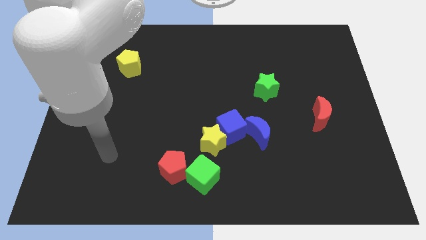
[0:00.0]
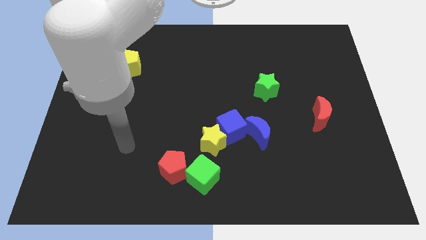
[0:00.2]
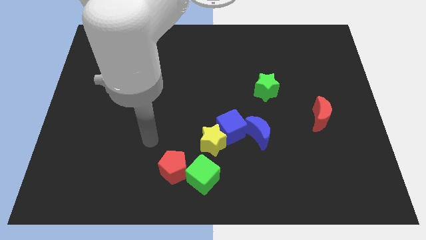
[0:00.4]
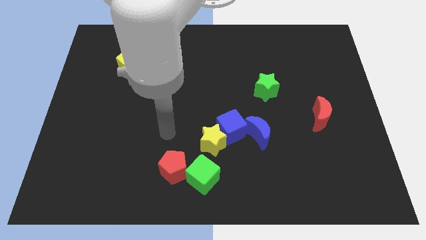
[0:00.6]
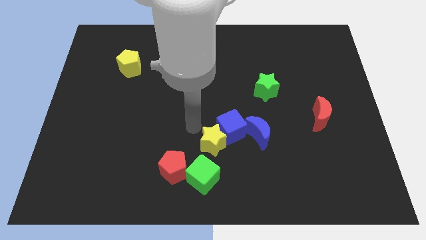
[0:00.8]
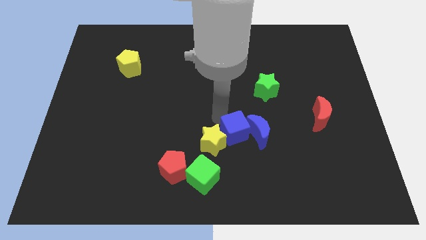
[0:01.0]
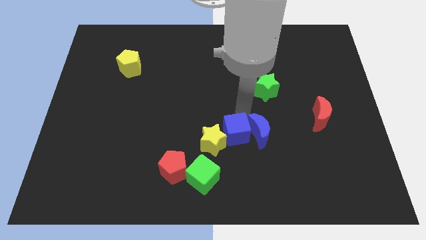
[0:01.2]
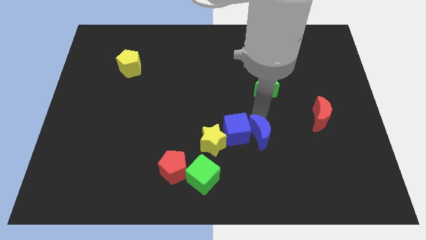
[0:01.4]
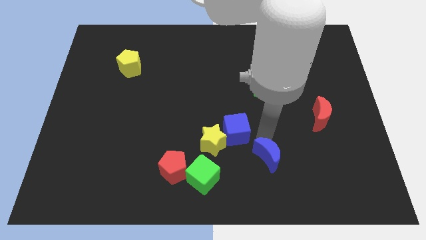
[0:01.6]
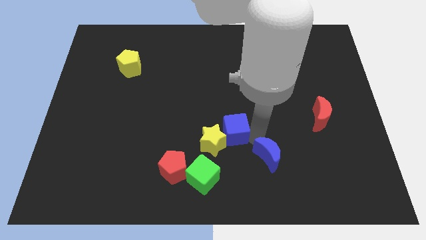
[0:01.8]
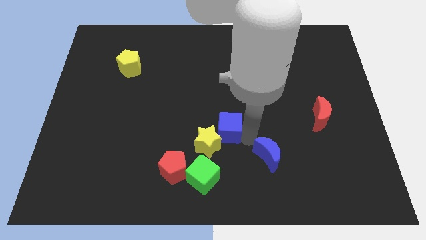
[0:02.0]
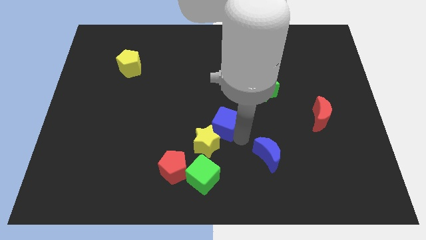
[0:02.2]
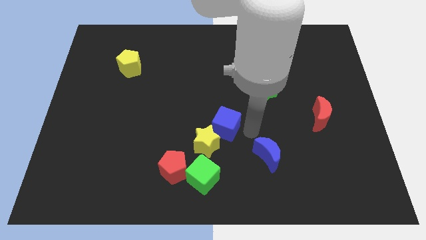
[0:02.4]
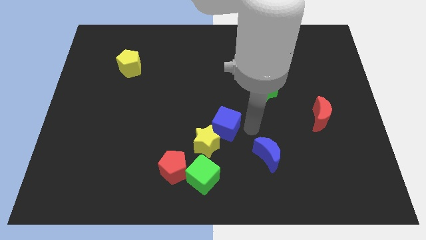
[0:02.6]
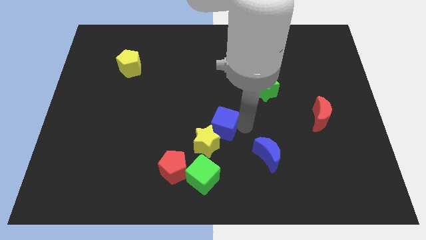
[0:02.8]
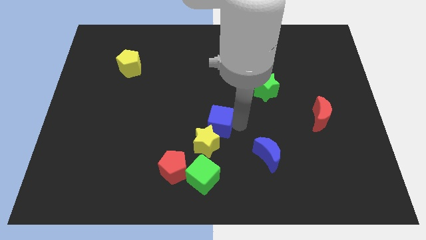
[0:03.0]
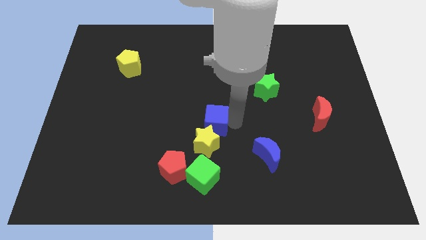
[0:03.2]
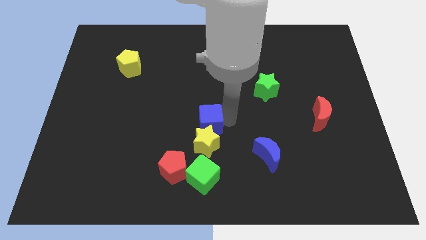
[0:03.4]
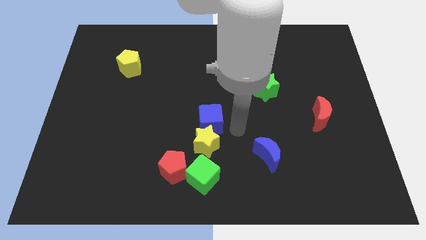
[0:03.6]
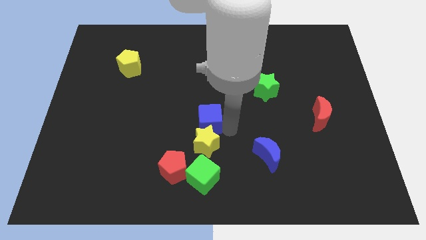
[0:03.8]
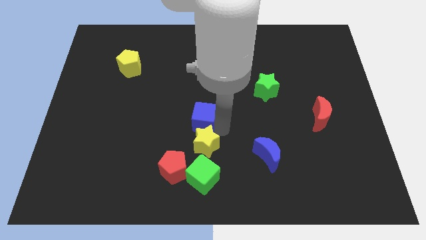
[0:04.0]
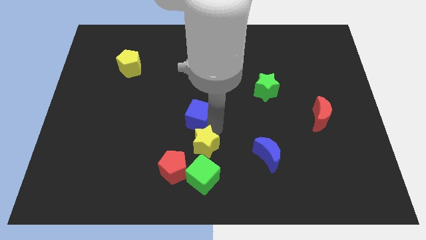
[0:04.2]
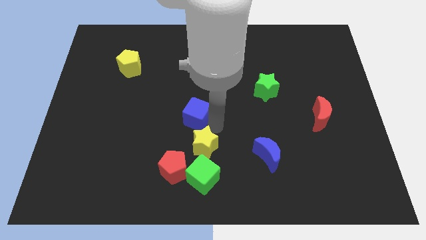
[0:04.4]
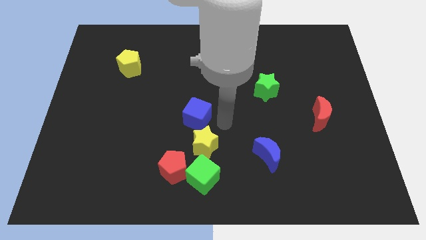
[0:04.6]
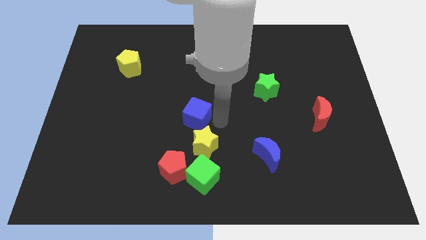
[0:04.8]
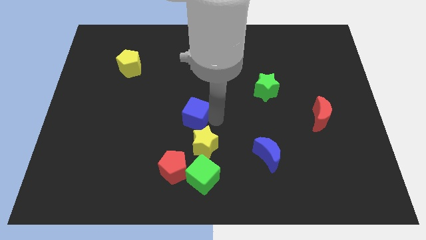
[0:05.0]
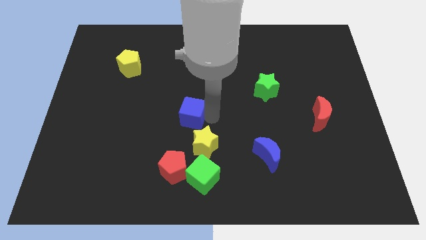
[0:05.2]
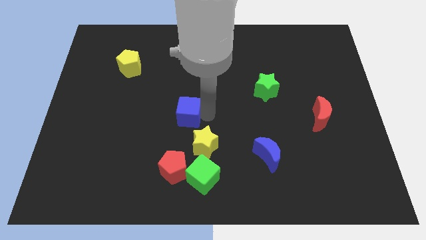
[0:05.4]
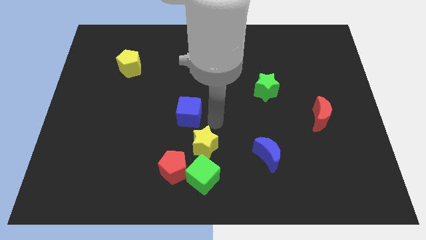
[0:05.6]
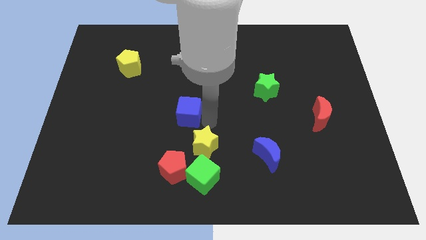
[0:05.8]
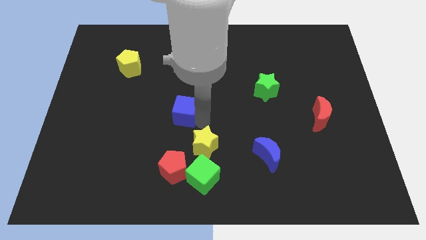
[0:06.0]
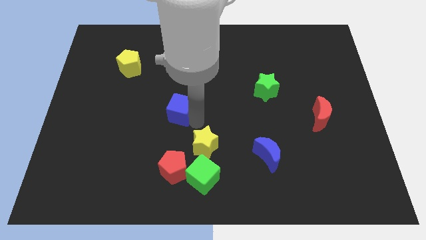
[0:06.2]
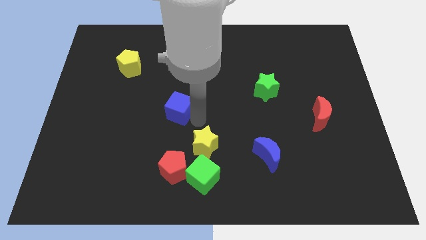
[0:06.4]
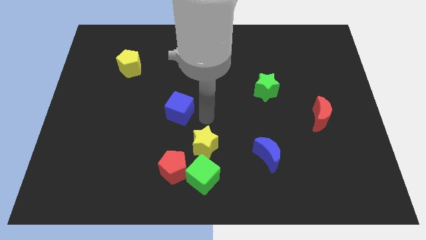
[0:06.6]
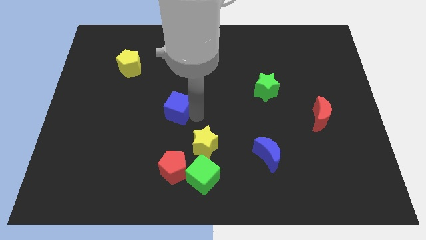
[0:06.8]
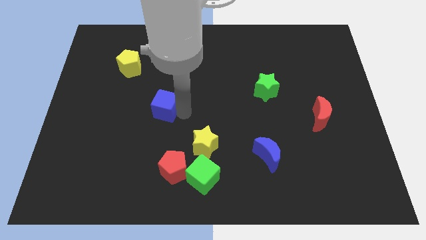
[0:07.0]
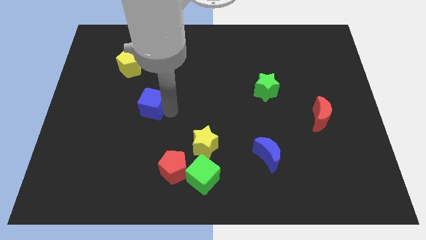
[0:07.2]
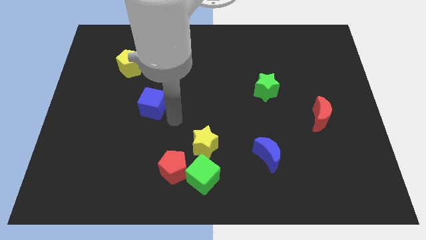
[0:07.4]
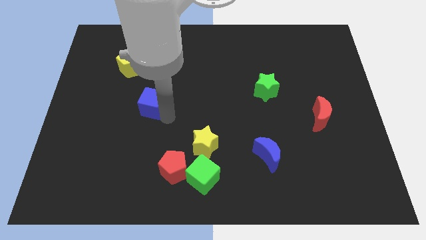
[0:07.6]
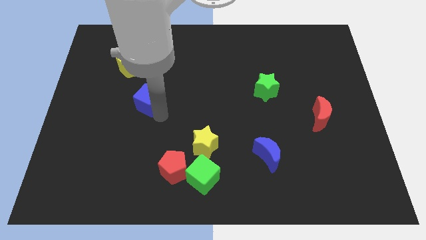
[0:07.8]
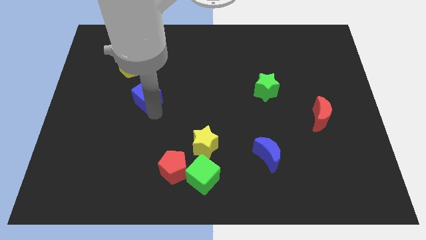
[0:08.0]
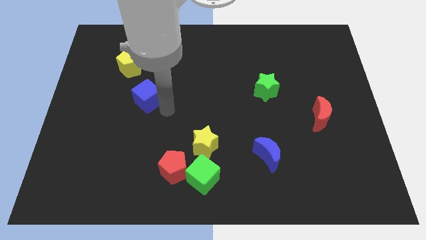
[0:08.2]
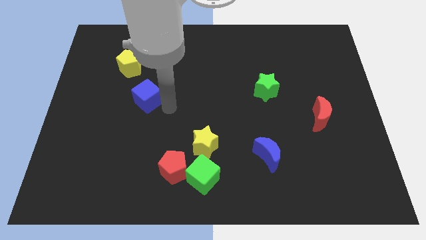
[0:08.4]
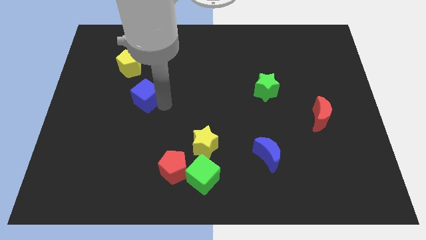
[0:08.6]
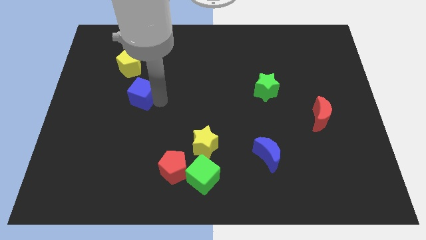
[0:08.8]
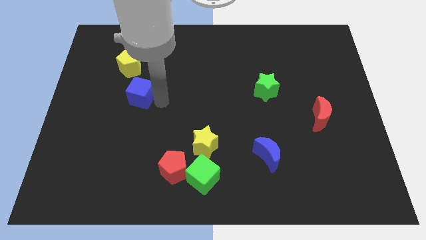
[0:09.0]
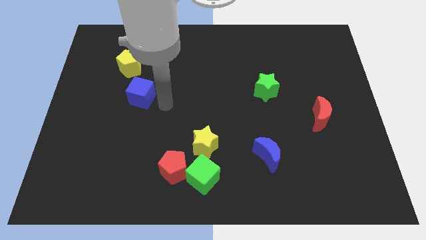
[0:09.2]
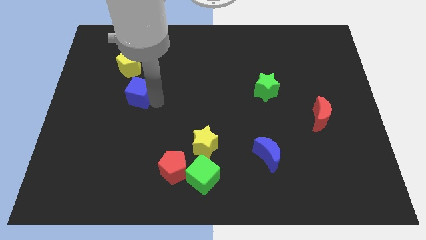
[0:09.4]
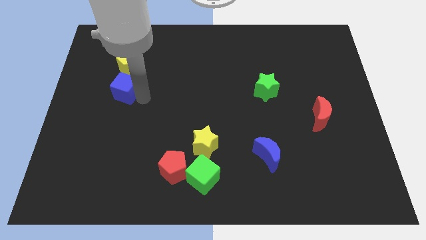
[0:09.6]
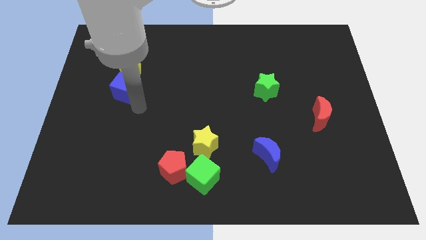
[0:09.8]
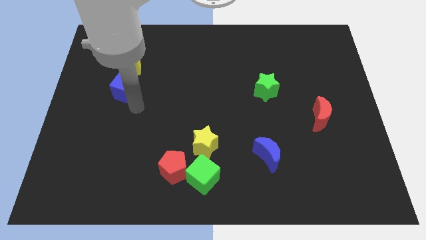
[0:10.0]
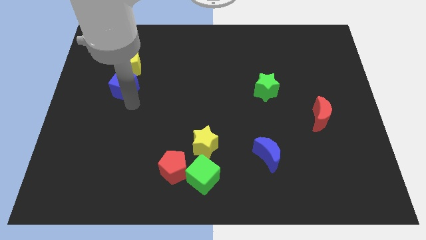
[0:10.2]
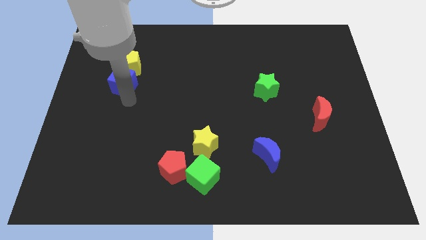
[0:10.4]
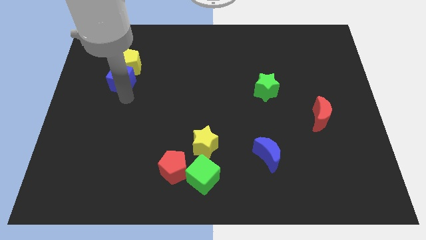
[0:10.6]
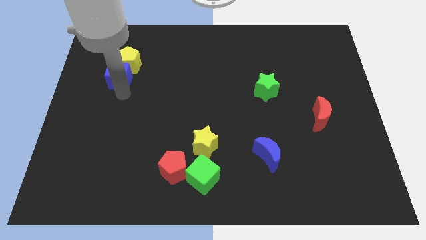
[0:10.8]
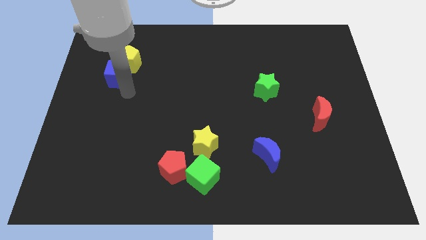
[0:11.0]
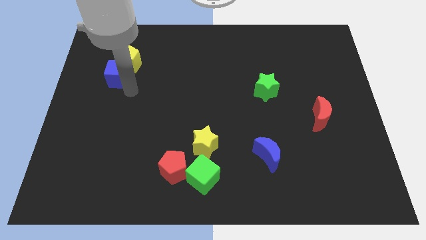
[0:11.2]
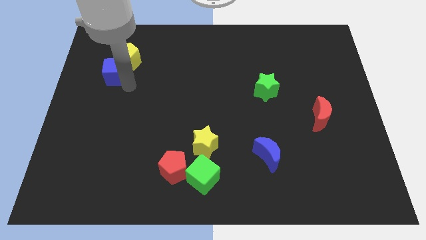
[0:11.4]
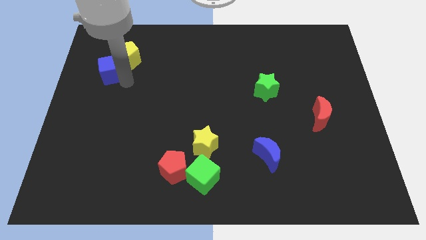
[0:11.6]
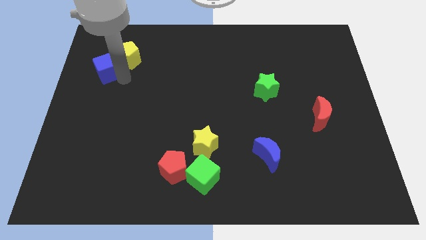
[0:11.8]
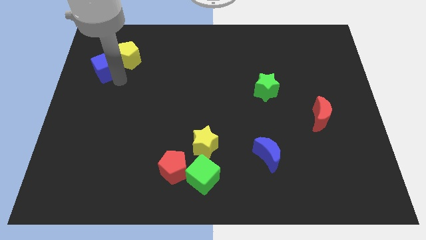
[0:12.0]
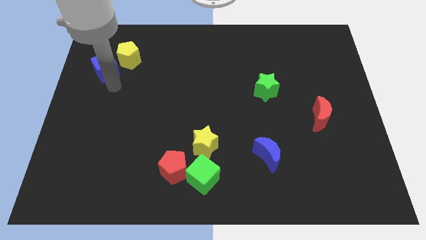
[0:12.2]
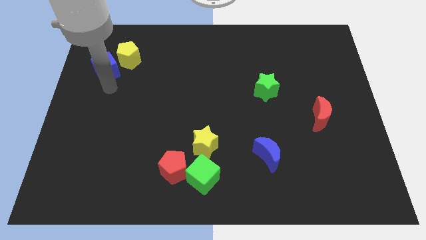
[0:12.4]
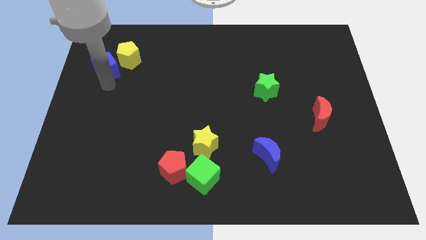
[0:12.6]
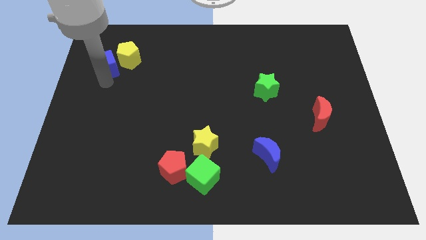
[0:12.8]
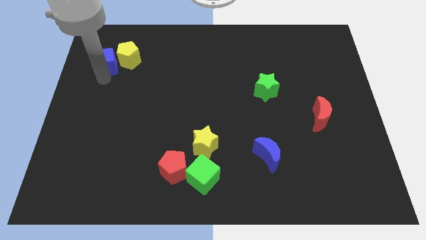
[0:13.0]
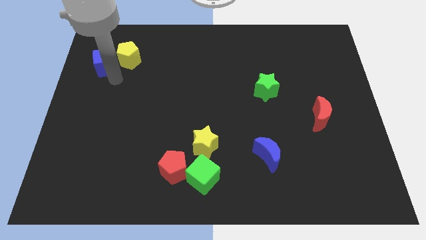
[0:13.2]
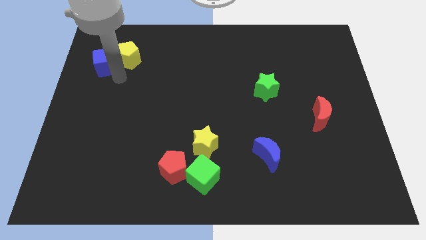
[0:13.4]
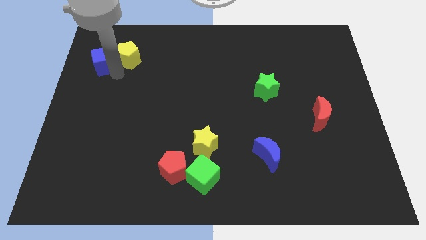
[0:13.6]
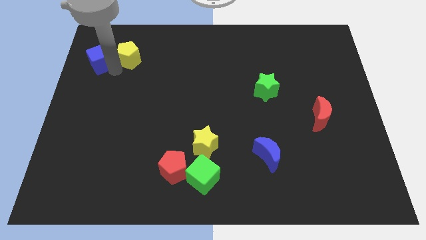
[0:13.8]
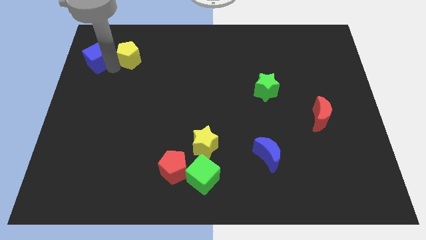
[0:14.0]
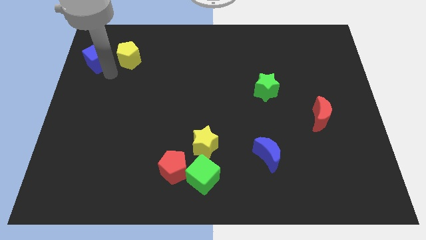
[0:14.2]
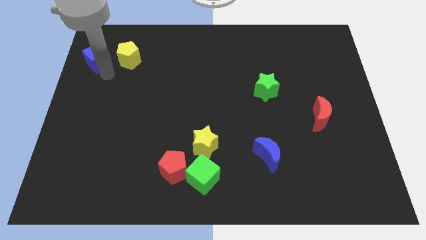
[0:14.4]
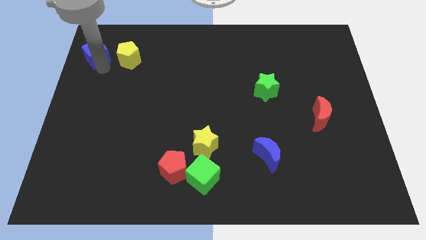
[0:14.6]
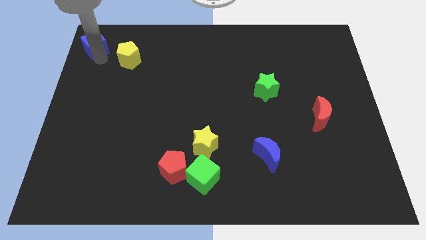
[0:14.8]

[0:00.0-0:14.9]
push the blue cube to the upper left corner
